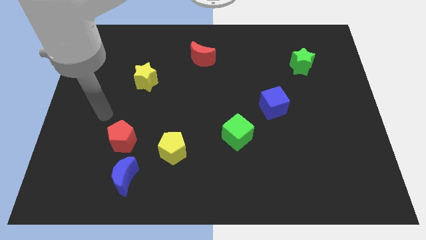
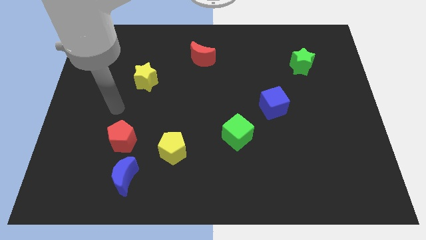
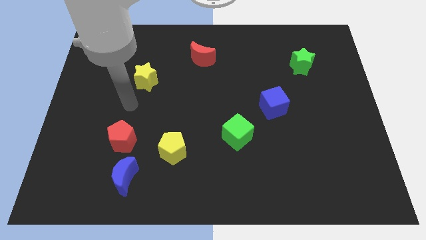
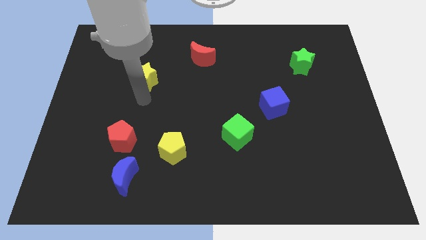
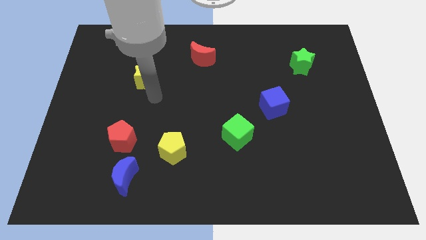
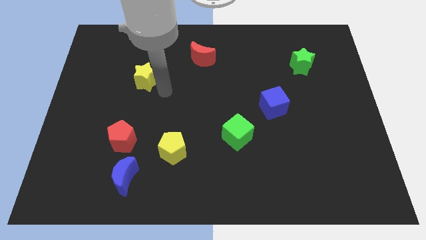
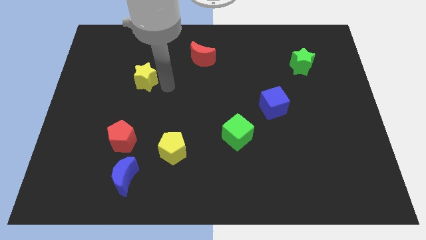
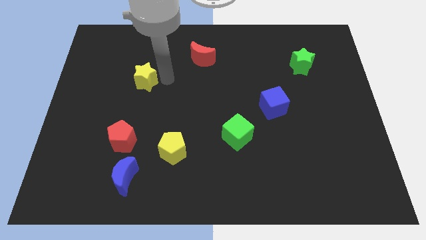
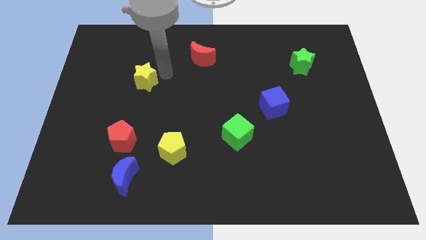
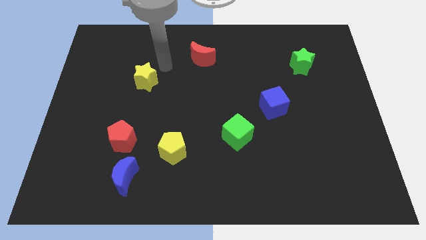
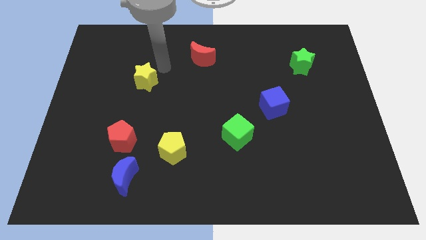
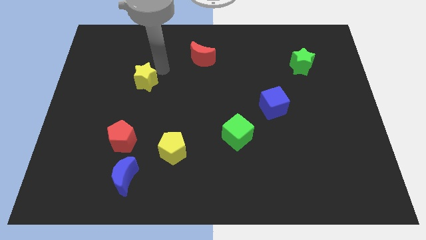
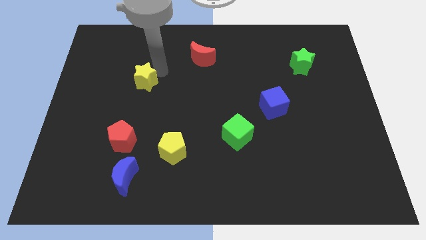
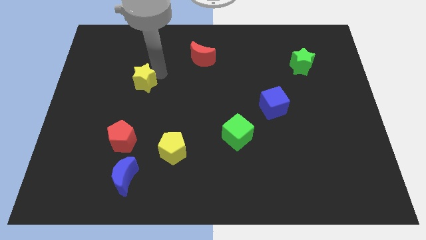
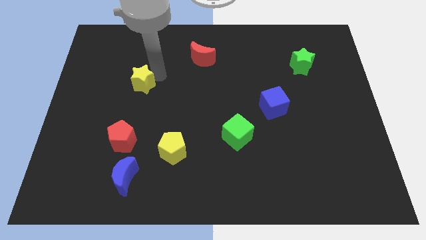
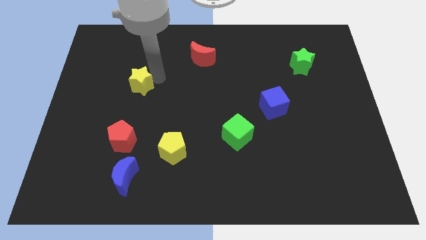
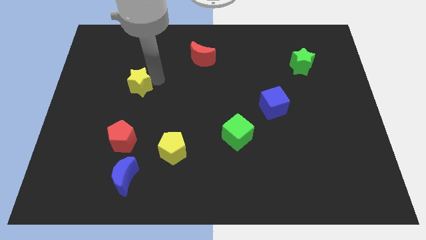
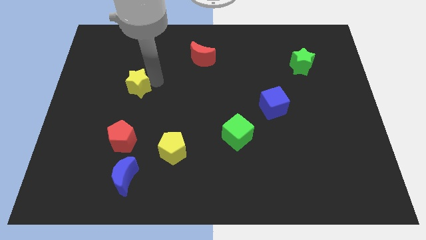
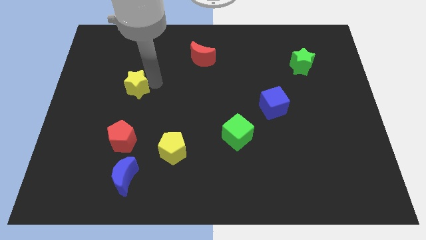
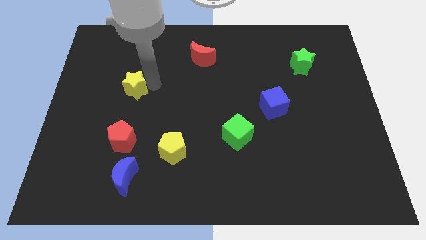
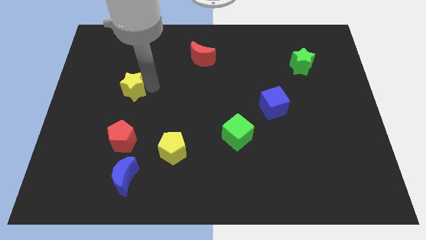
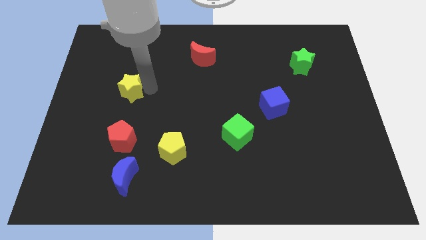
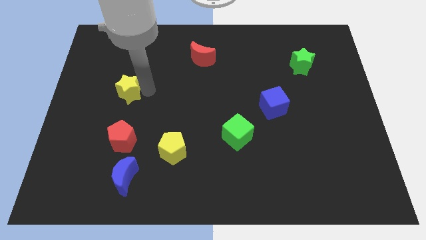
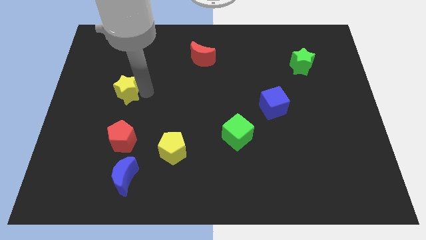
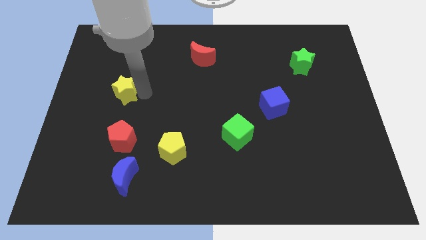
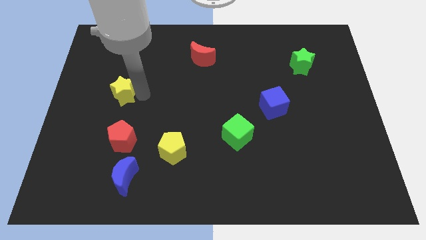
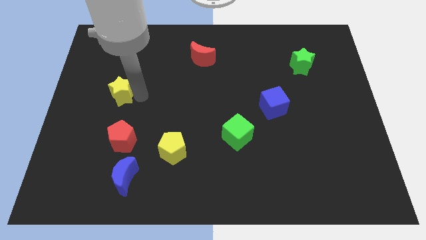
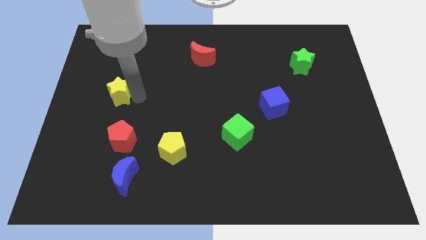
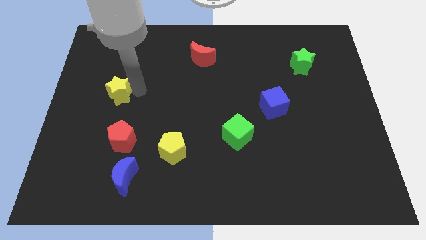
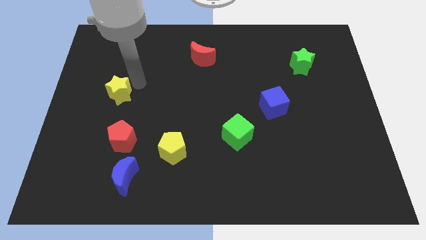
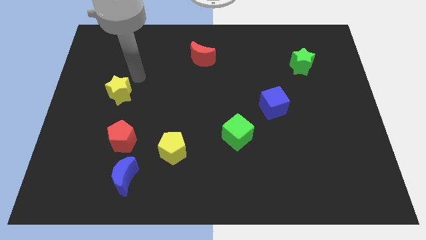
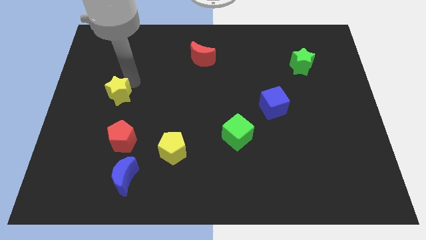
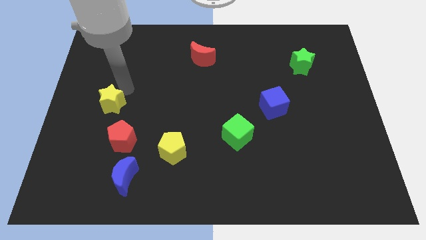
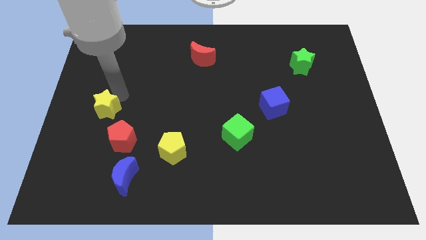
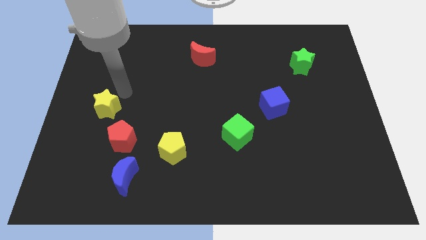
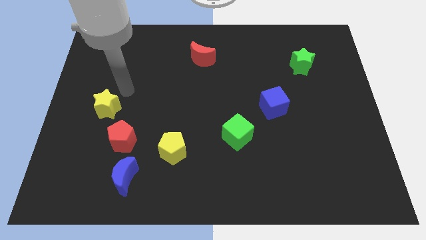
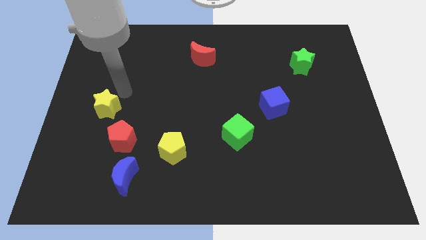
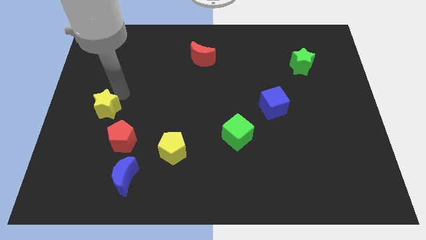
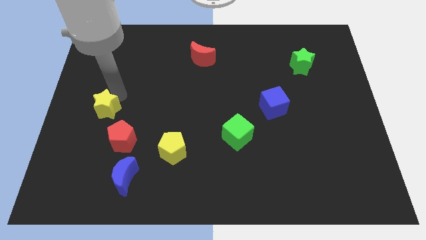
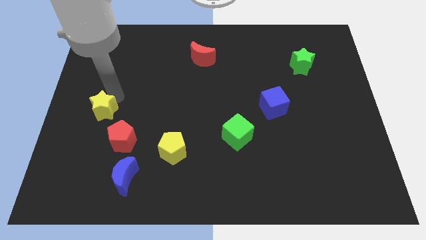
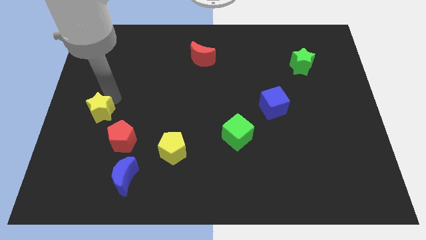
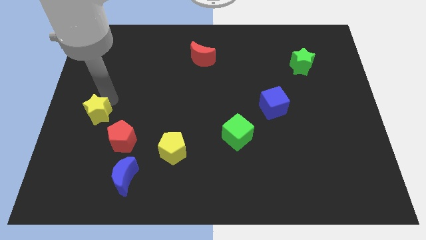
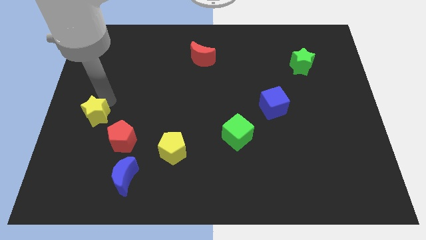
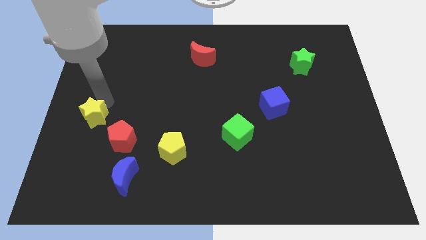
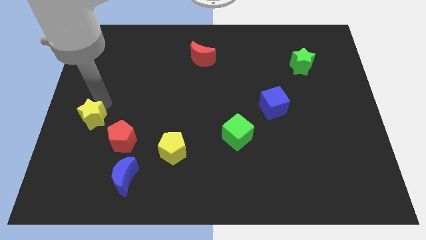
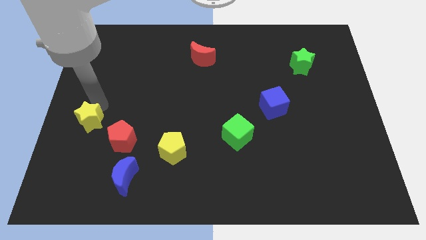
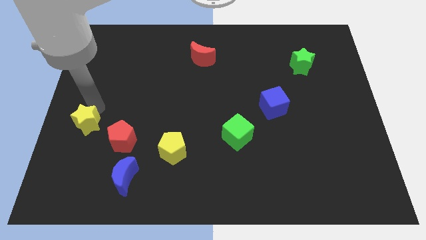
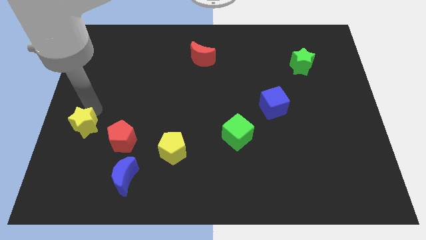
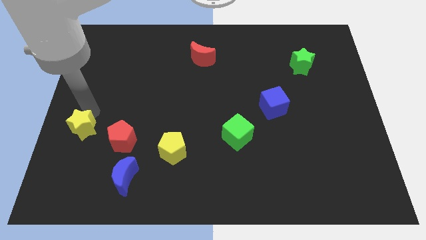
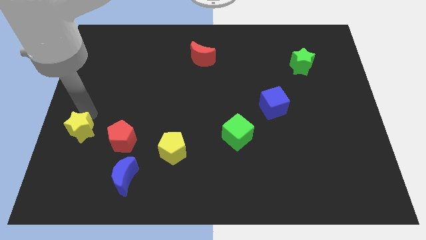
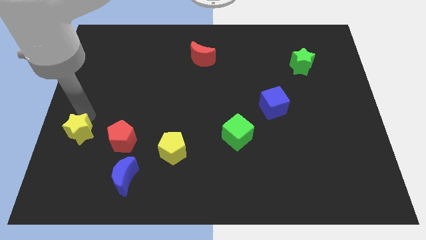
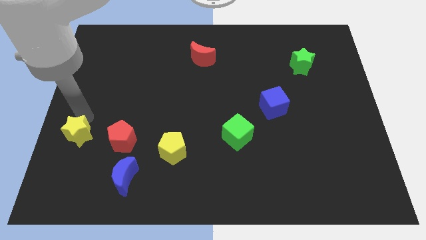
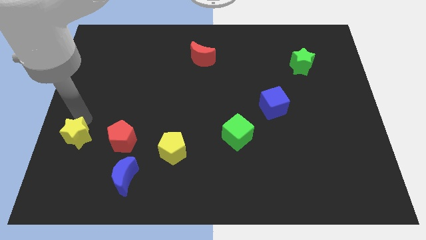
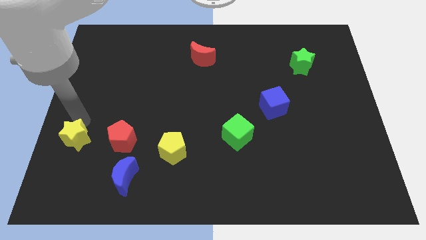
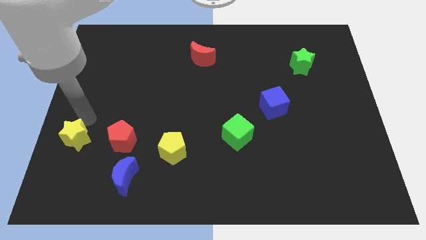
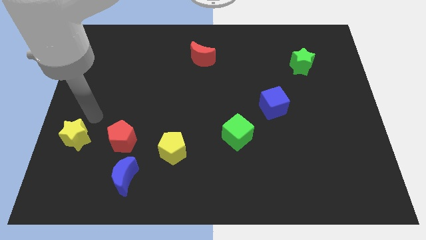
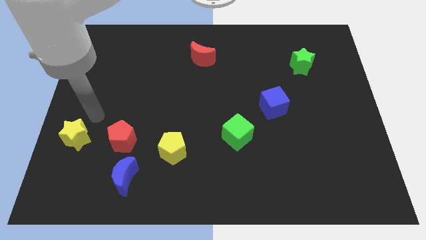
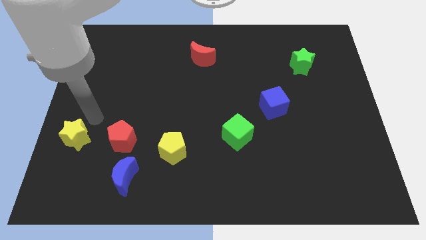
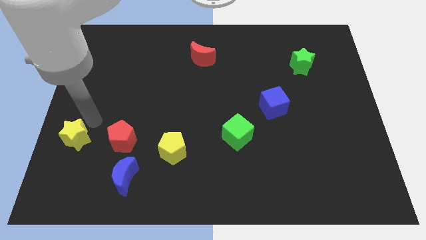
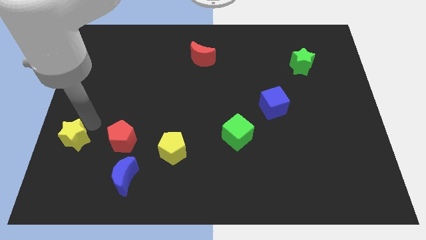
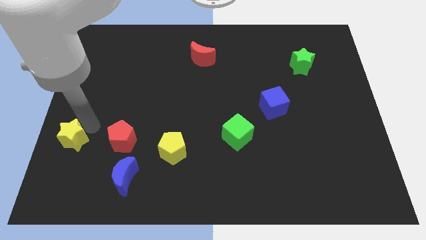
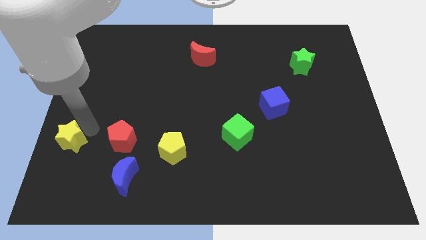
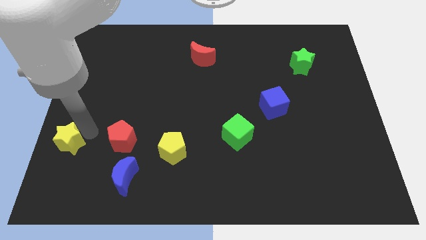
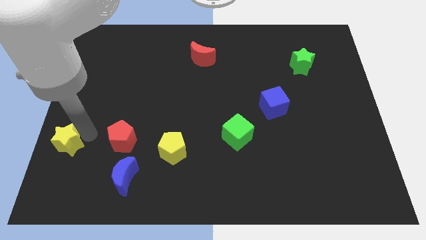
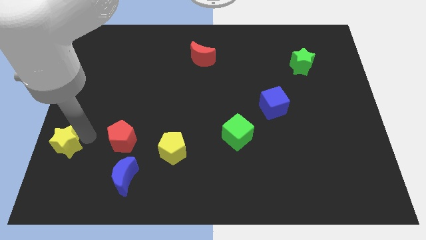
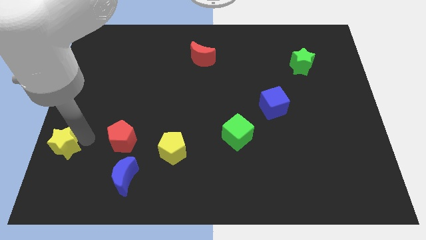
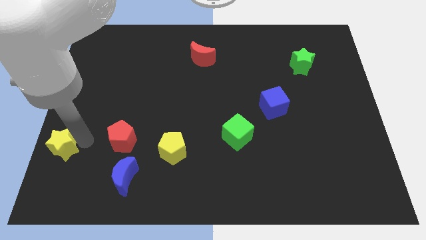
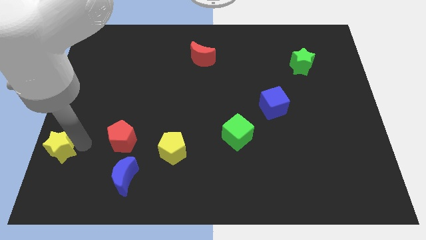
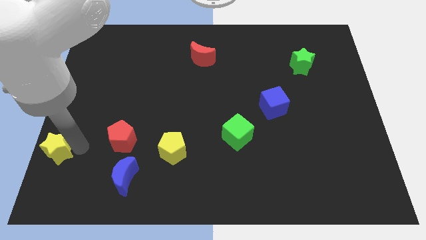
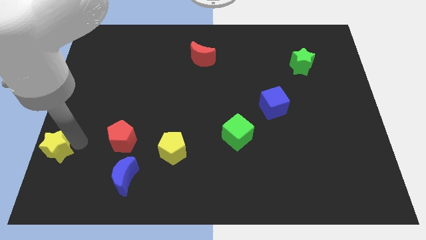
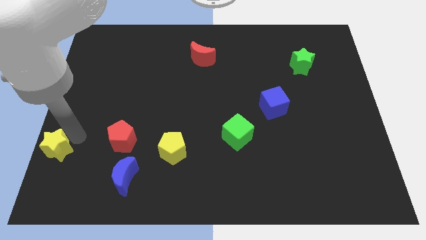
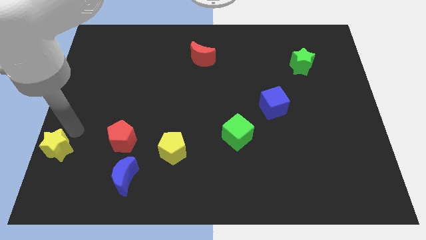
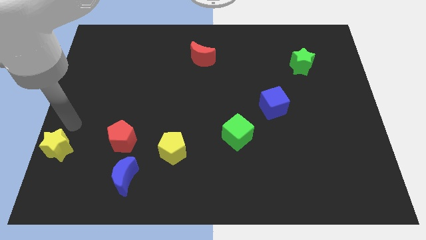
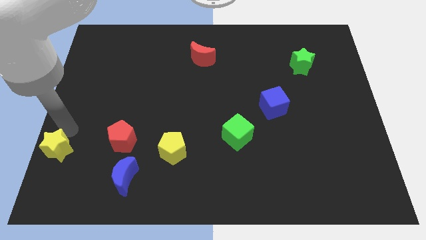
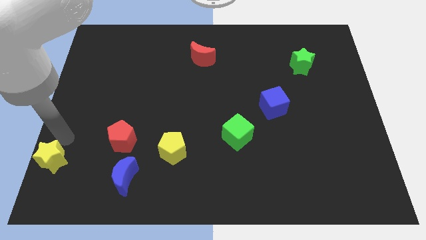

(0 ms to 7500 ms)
put the yellow star to the bottom left of the board
